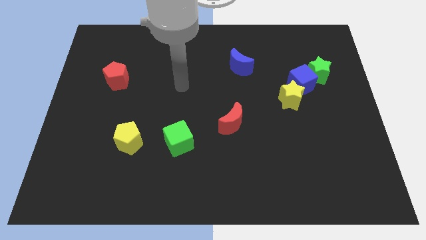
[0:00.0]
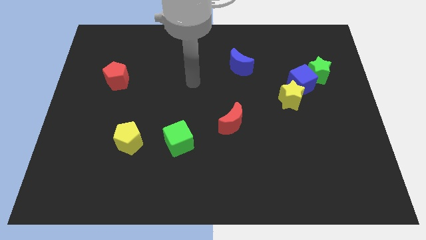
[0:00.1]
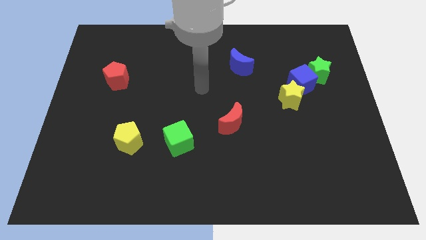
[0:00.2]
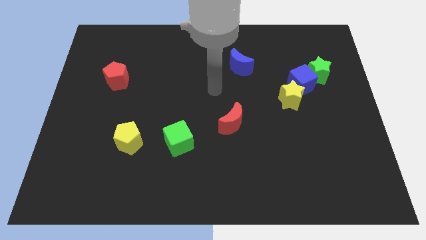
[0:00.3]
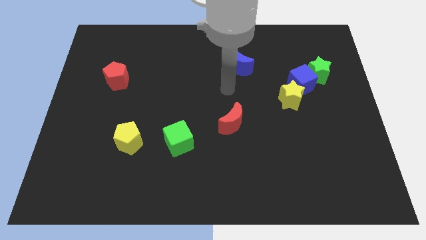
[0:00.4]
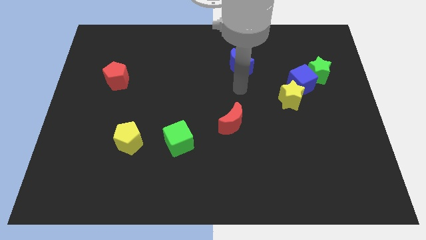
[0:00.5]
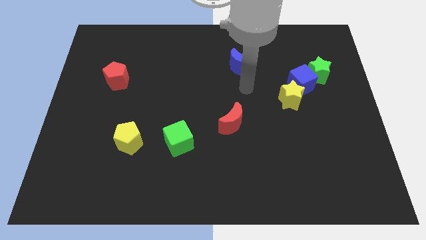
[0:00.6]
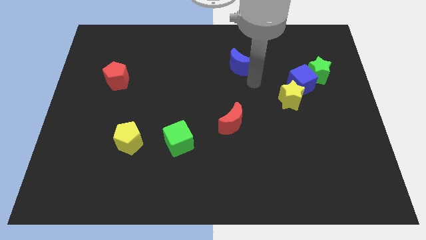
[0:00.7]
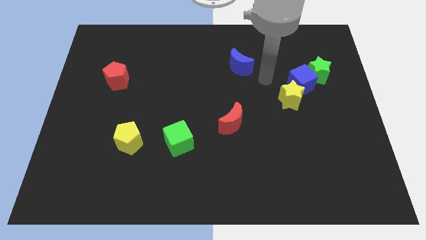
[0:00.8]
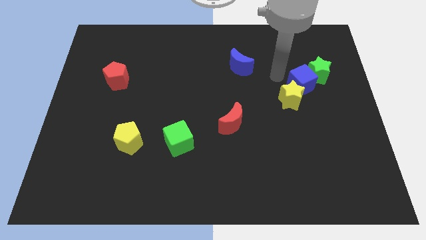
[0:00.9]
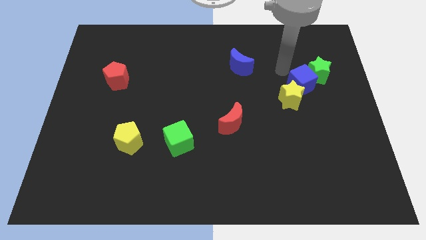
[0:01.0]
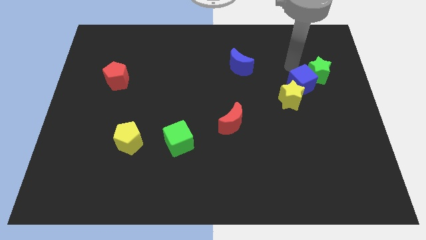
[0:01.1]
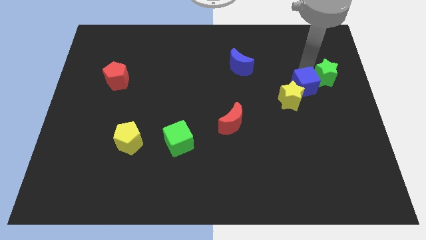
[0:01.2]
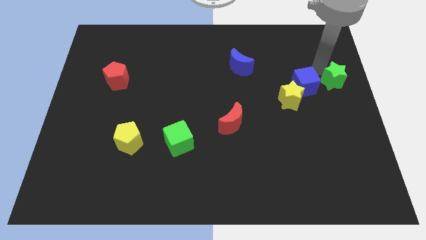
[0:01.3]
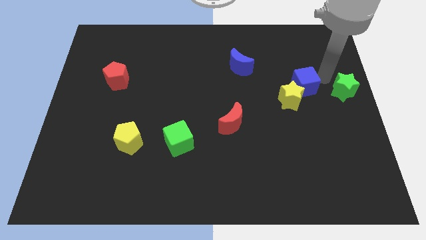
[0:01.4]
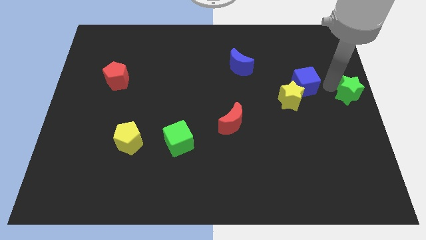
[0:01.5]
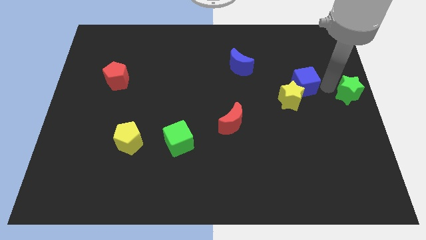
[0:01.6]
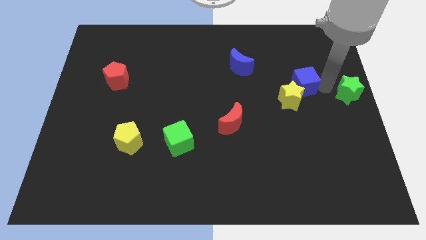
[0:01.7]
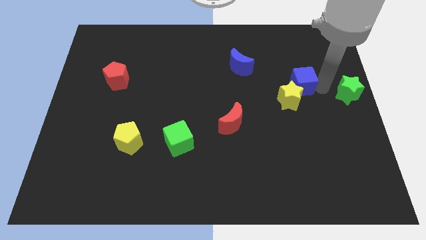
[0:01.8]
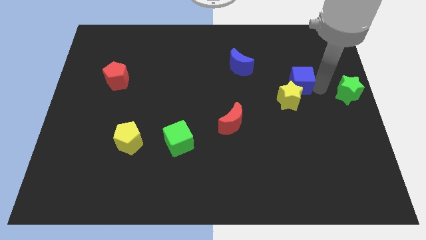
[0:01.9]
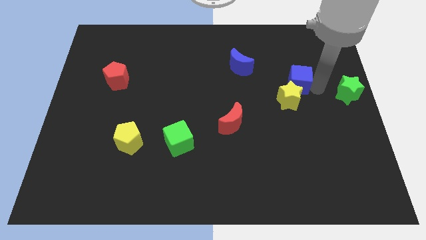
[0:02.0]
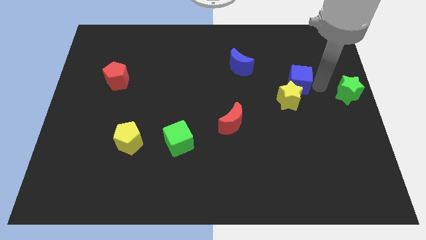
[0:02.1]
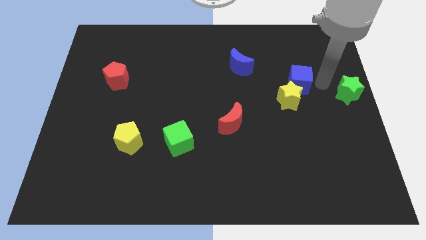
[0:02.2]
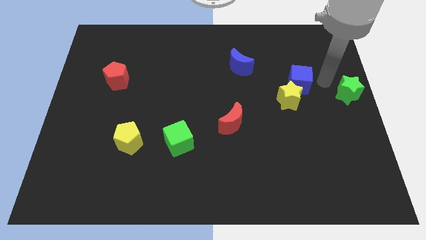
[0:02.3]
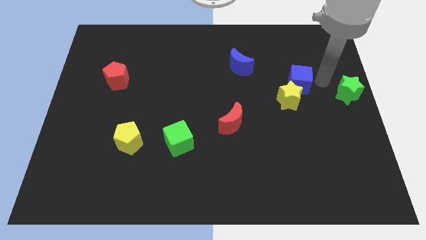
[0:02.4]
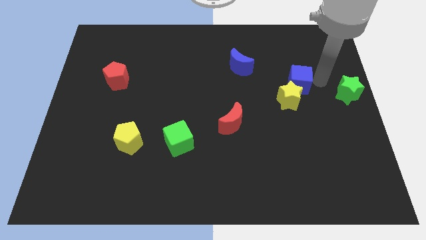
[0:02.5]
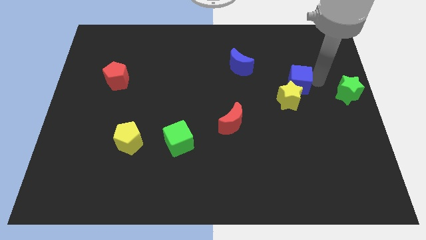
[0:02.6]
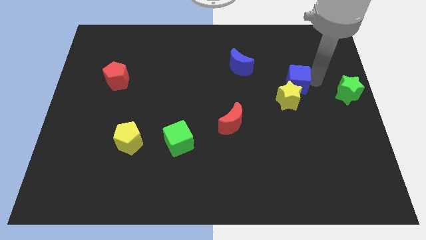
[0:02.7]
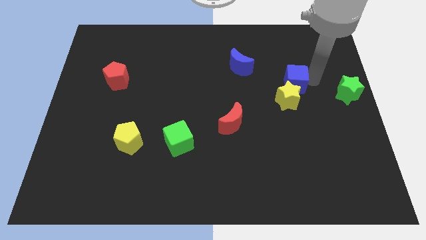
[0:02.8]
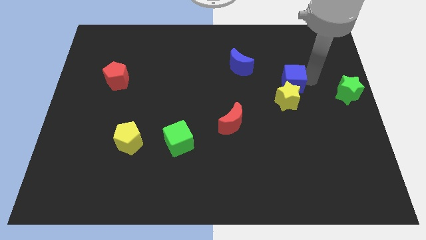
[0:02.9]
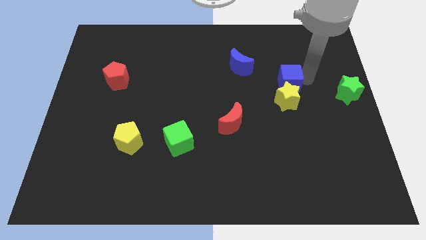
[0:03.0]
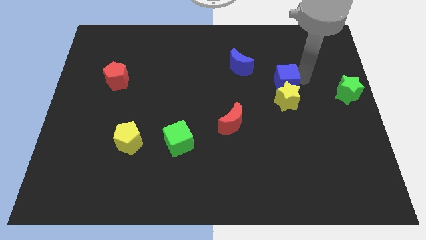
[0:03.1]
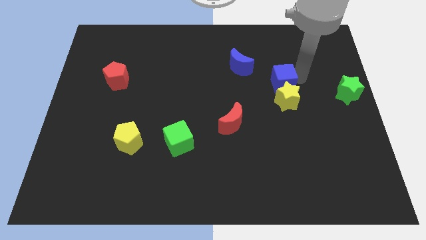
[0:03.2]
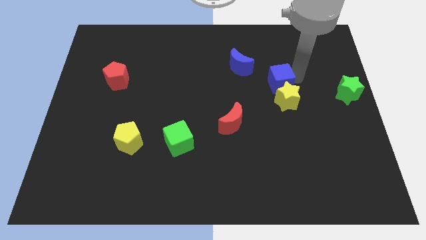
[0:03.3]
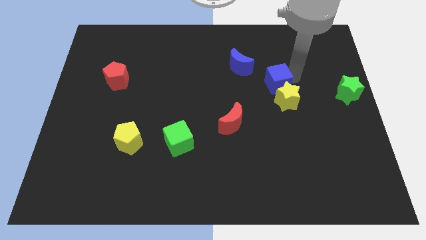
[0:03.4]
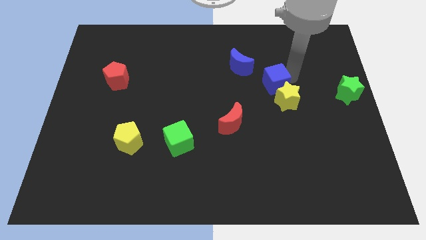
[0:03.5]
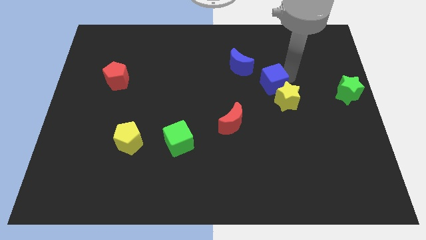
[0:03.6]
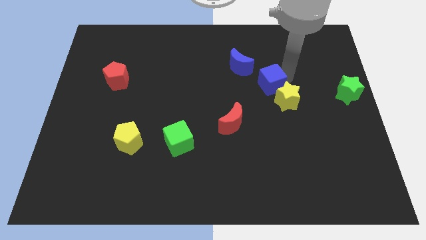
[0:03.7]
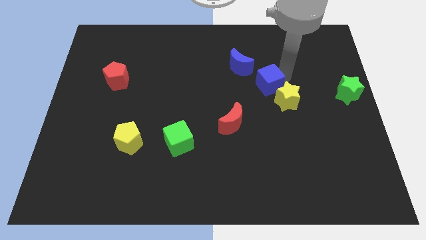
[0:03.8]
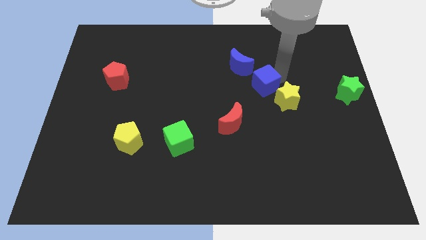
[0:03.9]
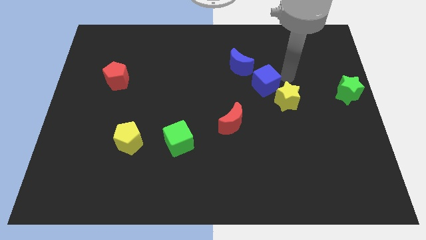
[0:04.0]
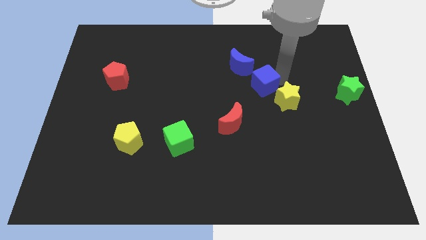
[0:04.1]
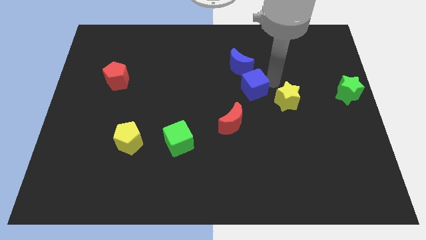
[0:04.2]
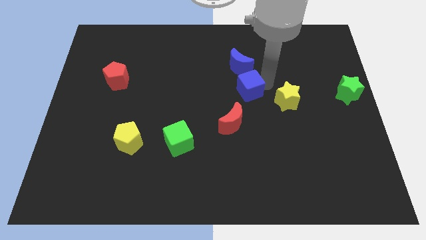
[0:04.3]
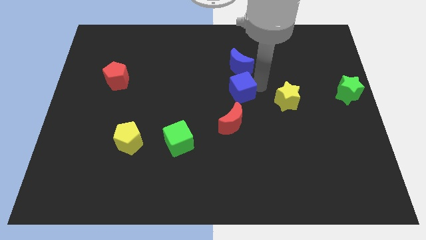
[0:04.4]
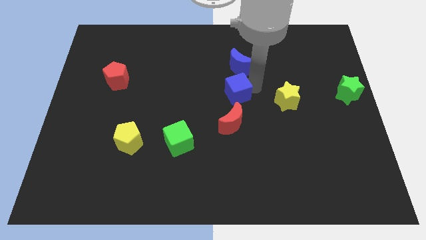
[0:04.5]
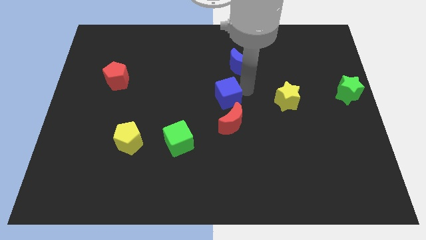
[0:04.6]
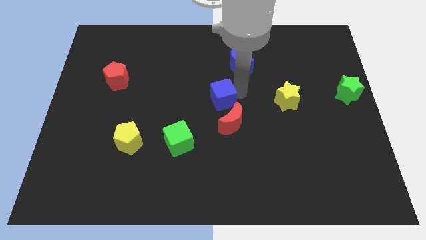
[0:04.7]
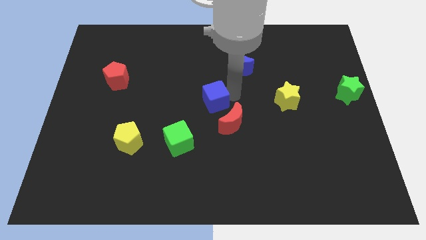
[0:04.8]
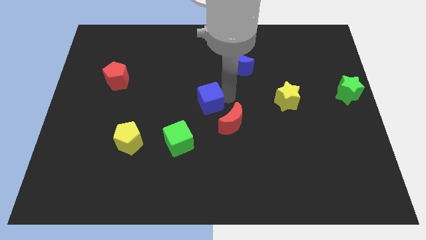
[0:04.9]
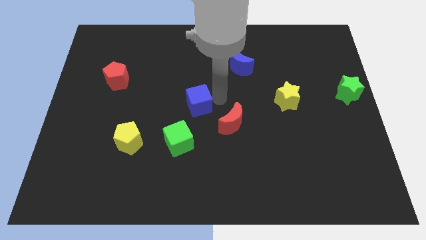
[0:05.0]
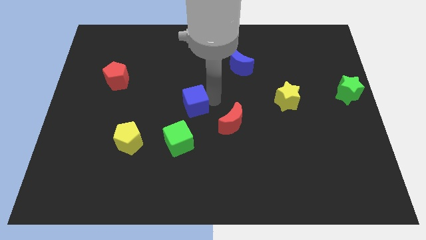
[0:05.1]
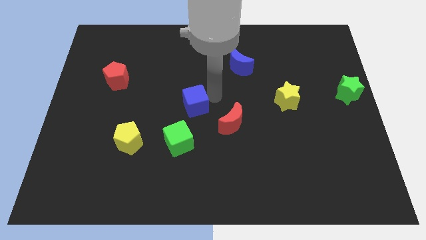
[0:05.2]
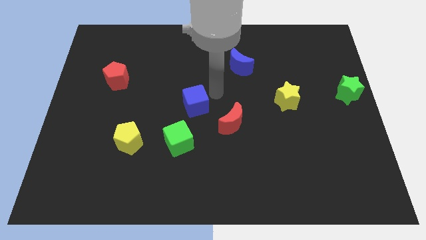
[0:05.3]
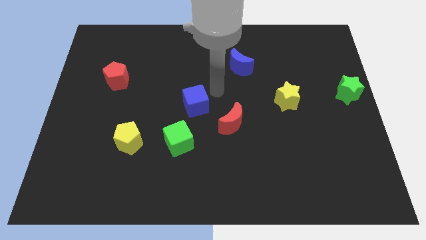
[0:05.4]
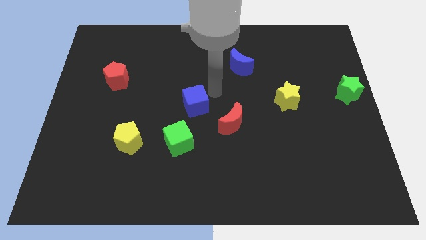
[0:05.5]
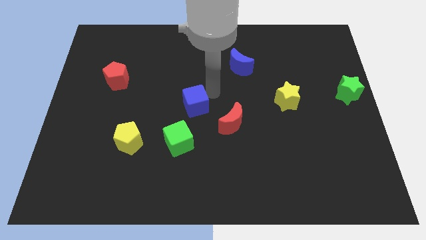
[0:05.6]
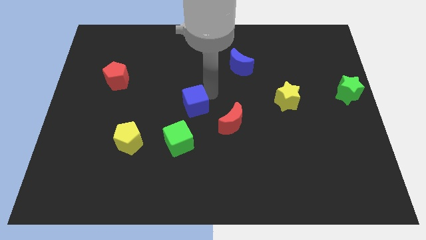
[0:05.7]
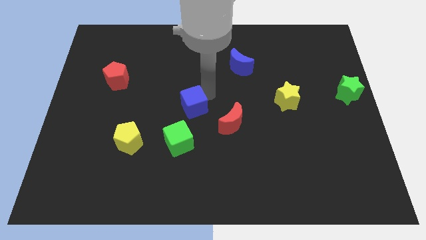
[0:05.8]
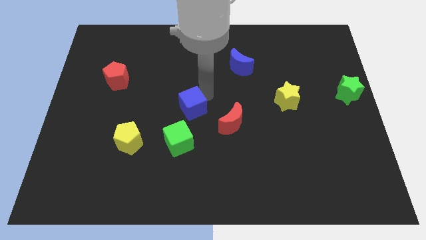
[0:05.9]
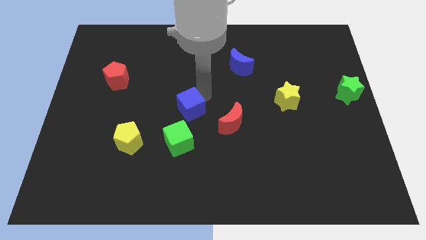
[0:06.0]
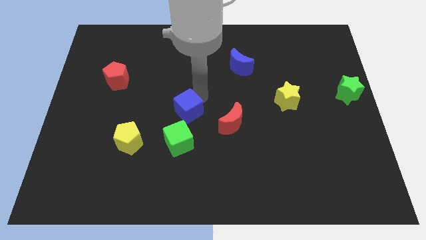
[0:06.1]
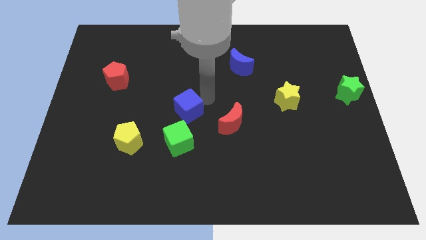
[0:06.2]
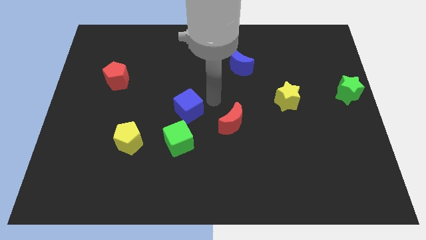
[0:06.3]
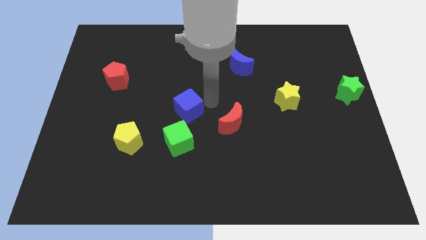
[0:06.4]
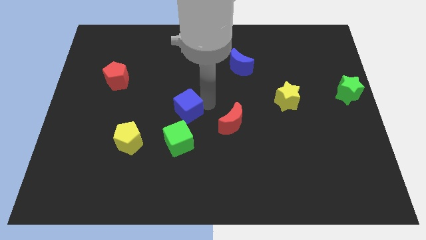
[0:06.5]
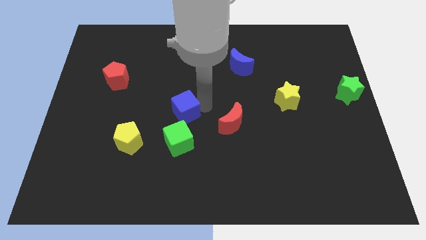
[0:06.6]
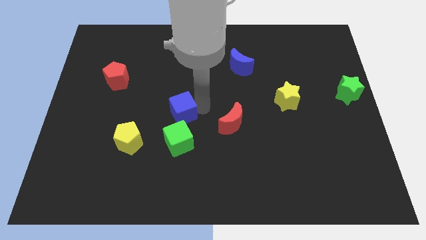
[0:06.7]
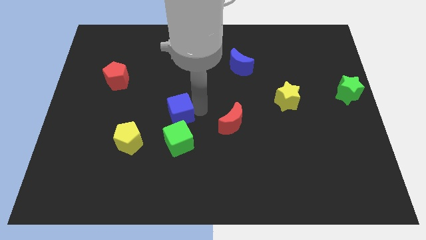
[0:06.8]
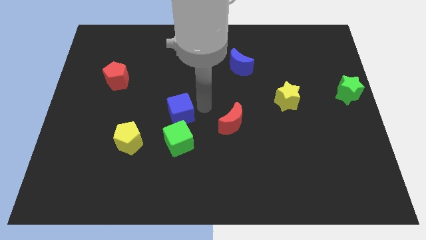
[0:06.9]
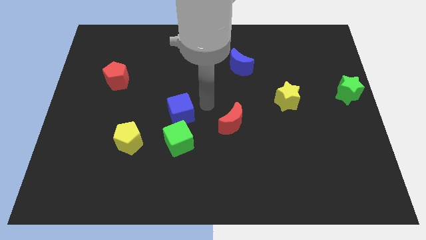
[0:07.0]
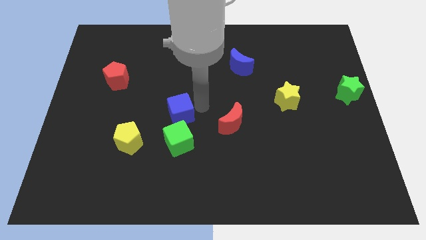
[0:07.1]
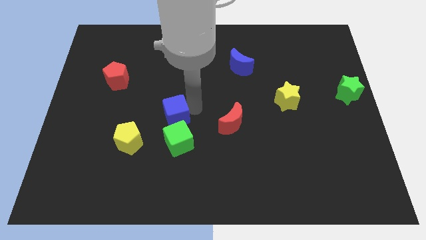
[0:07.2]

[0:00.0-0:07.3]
move the blue cube diagonally up and to the right of the yellow pentagon
